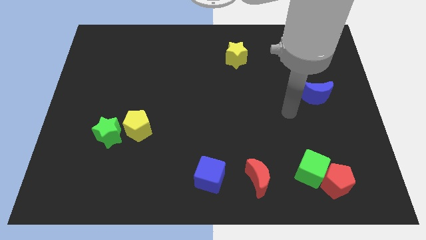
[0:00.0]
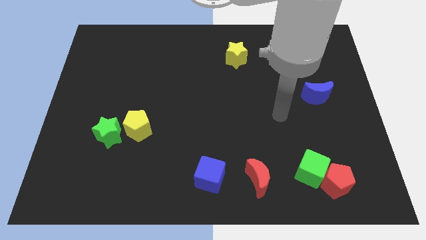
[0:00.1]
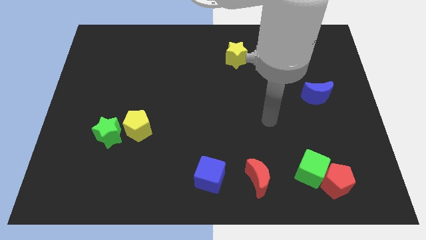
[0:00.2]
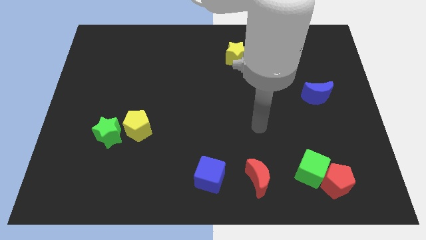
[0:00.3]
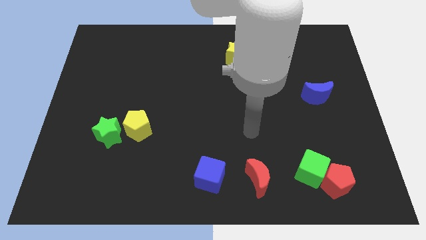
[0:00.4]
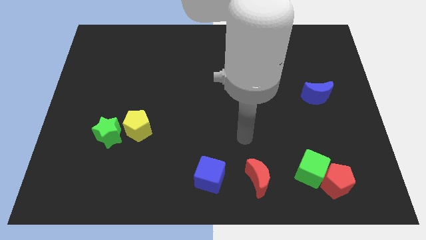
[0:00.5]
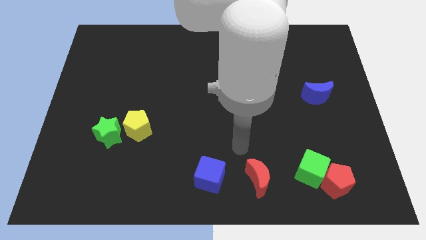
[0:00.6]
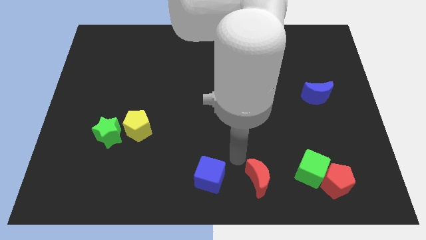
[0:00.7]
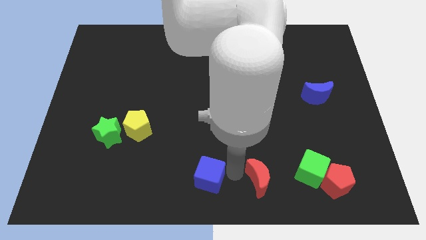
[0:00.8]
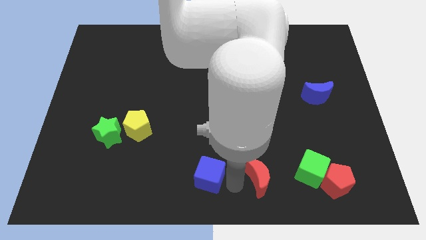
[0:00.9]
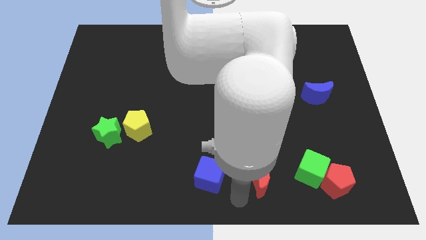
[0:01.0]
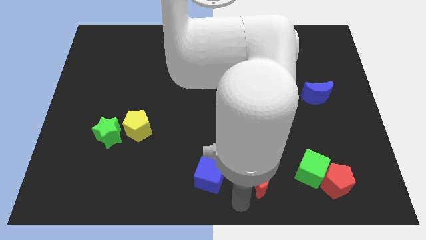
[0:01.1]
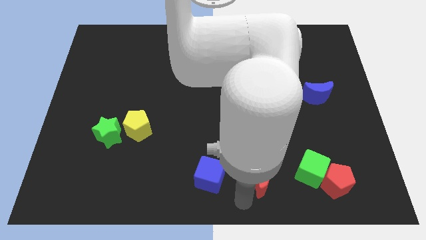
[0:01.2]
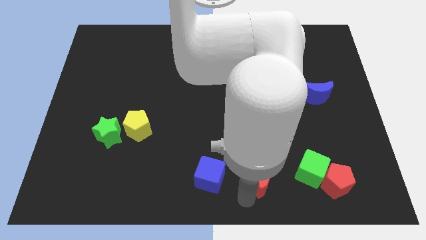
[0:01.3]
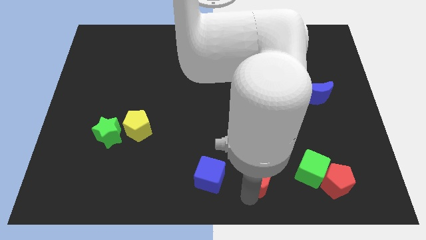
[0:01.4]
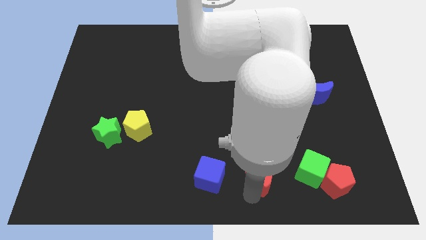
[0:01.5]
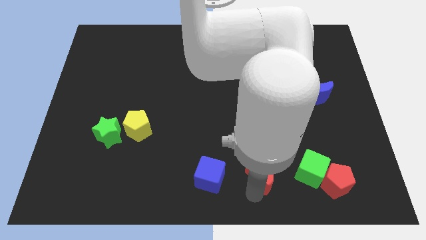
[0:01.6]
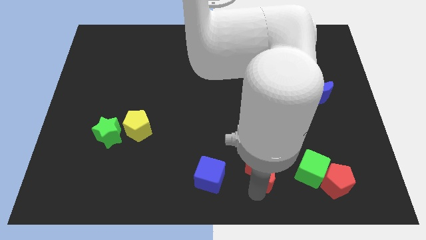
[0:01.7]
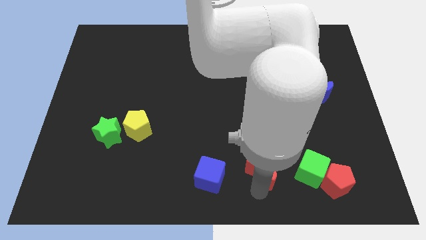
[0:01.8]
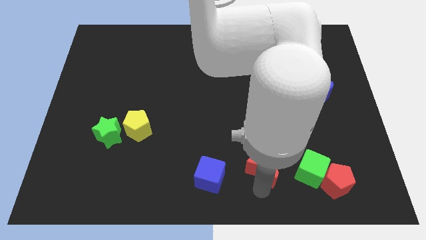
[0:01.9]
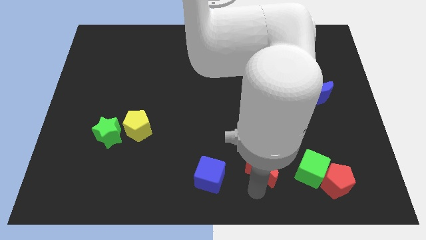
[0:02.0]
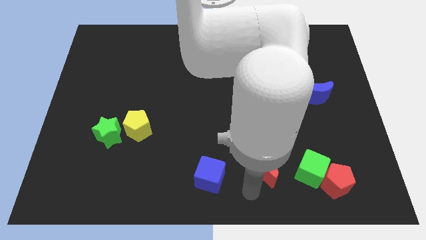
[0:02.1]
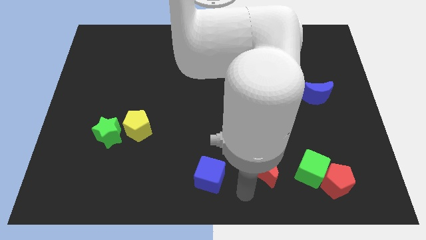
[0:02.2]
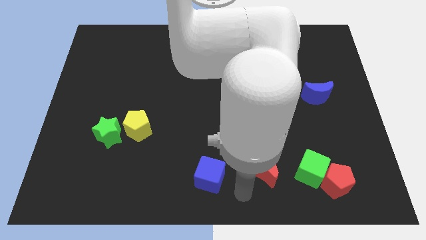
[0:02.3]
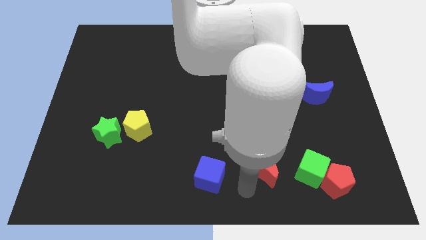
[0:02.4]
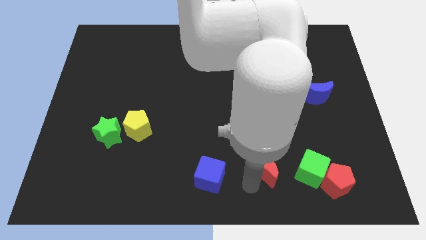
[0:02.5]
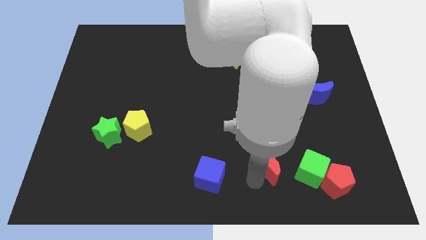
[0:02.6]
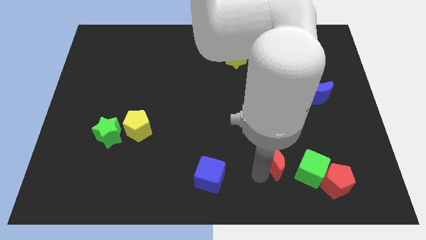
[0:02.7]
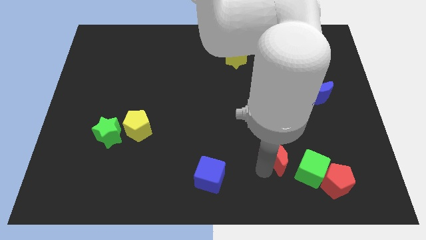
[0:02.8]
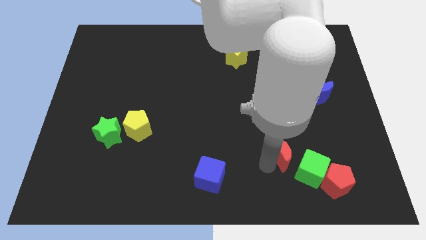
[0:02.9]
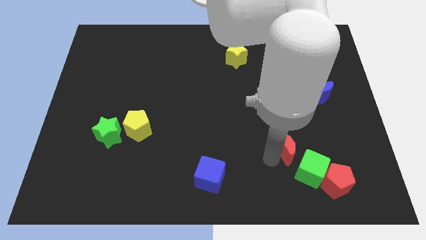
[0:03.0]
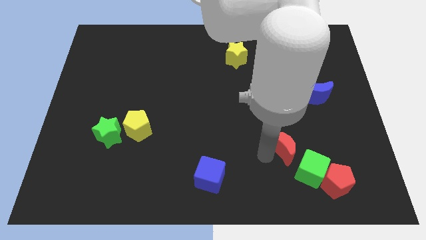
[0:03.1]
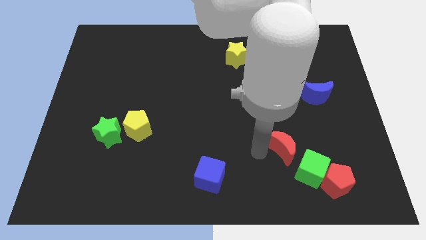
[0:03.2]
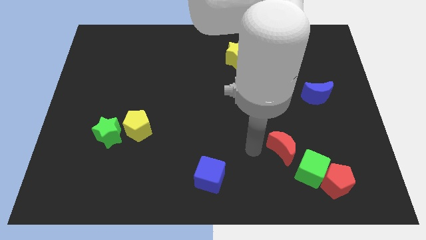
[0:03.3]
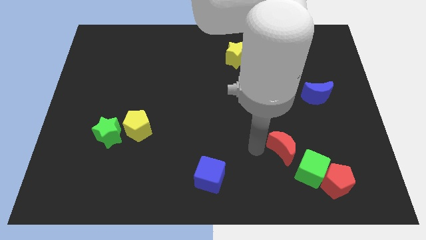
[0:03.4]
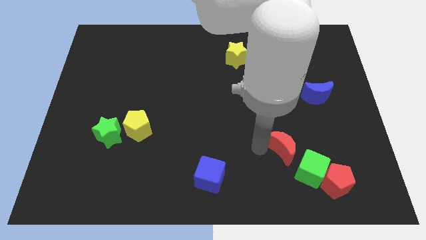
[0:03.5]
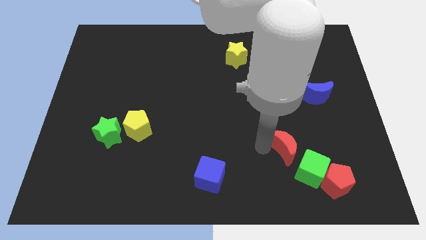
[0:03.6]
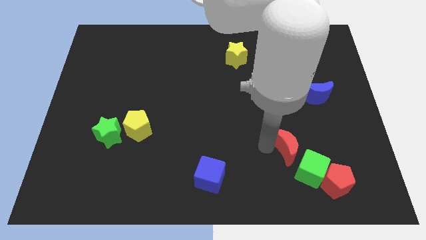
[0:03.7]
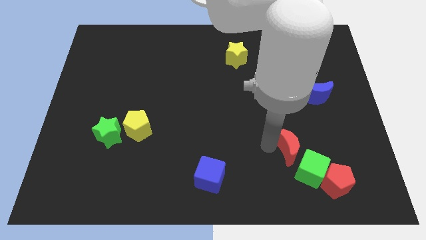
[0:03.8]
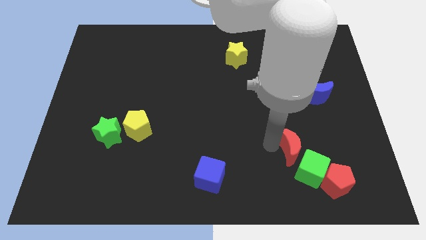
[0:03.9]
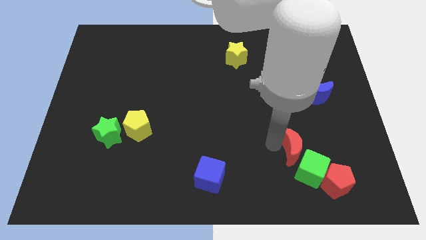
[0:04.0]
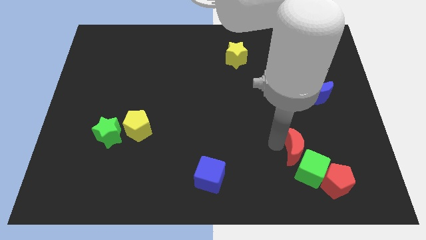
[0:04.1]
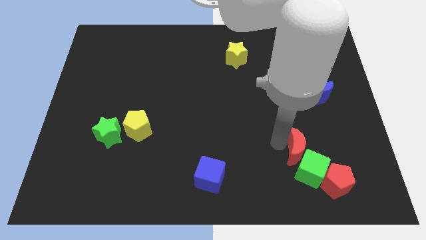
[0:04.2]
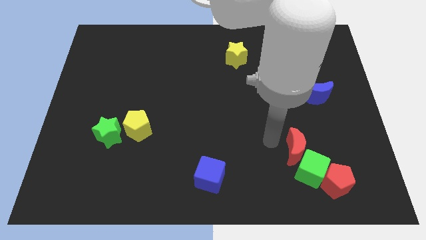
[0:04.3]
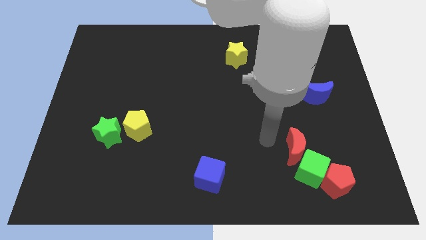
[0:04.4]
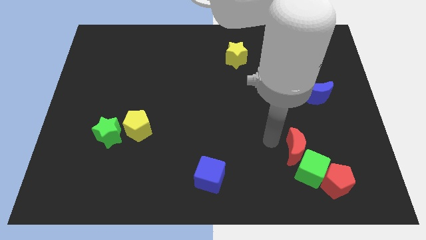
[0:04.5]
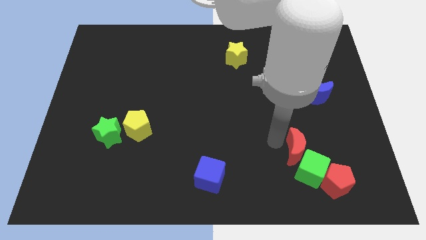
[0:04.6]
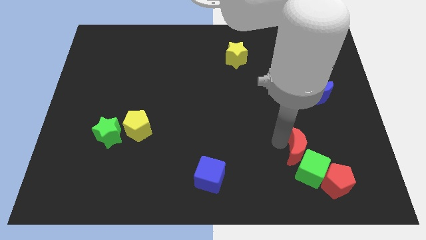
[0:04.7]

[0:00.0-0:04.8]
slightly move the red moon right

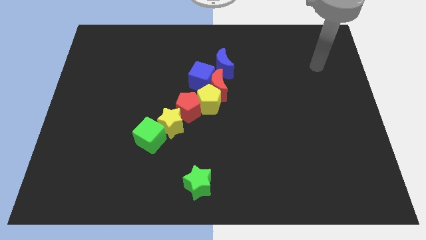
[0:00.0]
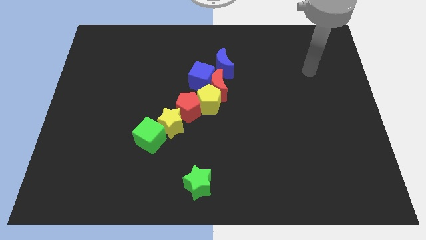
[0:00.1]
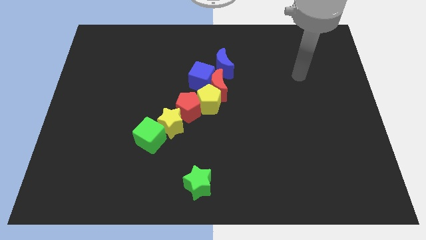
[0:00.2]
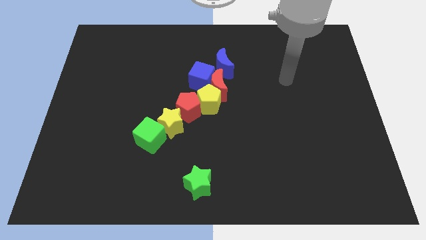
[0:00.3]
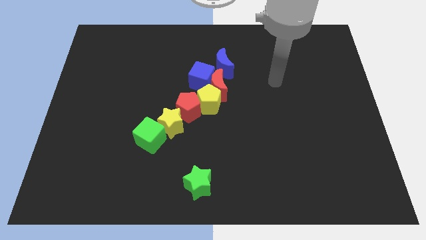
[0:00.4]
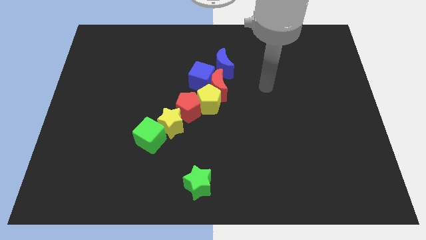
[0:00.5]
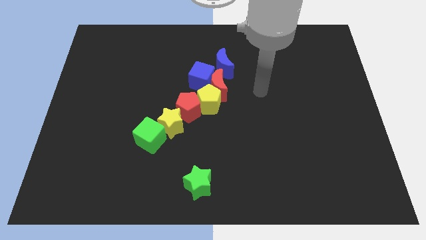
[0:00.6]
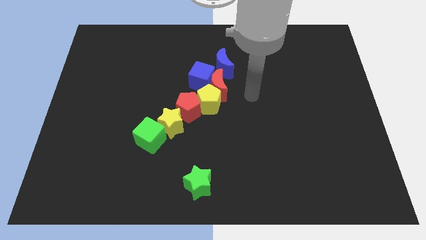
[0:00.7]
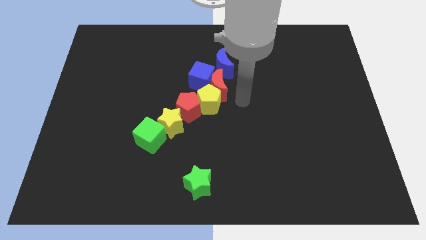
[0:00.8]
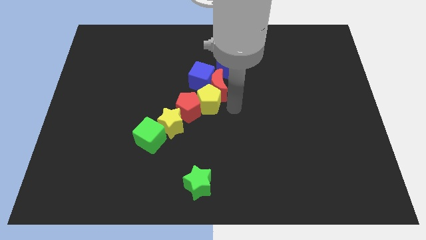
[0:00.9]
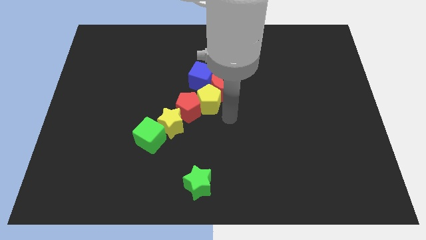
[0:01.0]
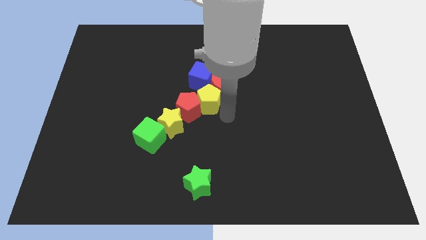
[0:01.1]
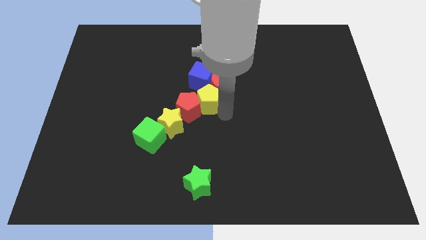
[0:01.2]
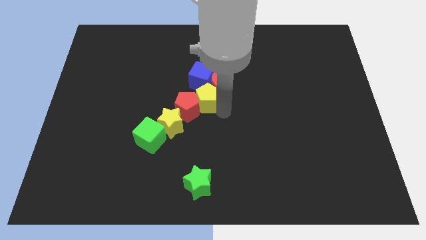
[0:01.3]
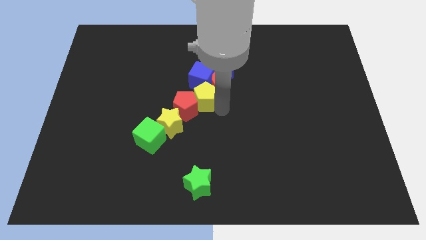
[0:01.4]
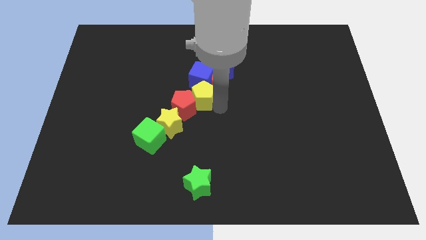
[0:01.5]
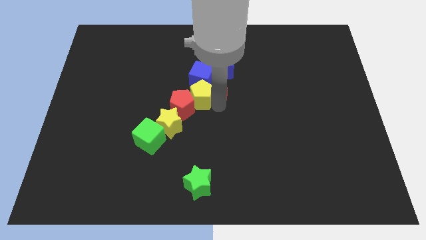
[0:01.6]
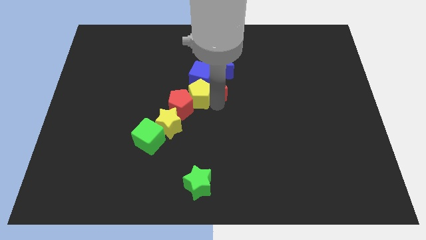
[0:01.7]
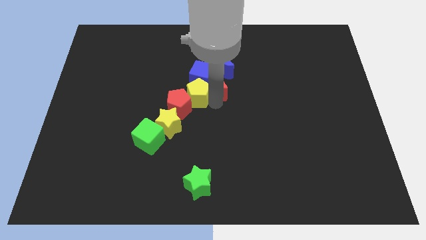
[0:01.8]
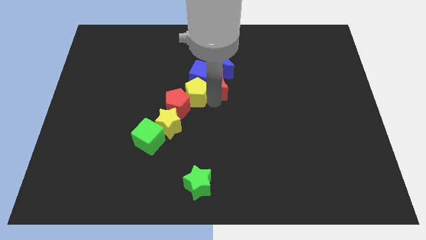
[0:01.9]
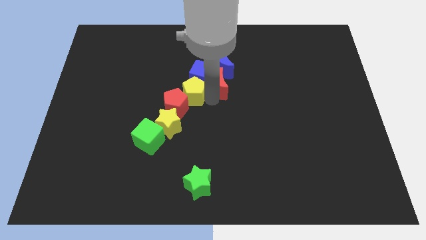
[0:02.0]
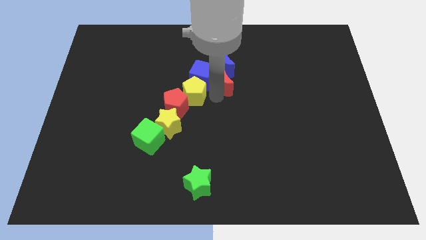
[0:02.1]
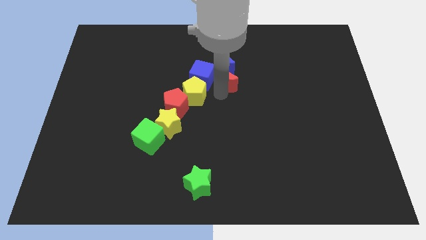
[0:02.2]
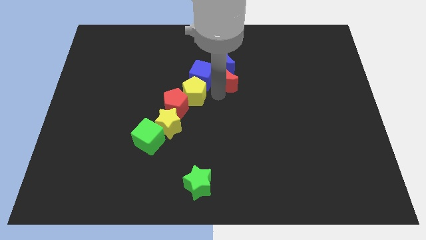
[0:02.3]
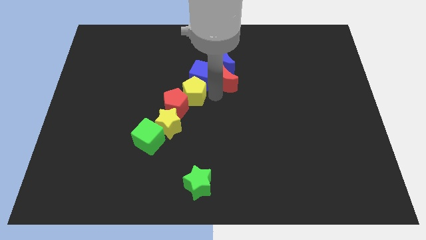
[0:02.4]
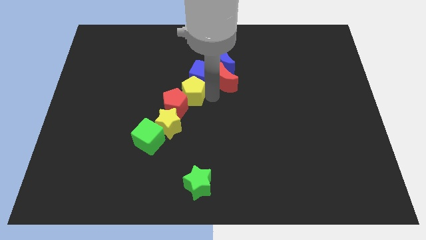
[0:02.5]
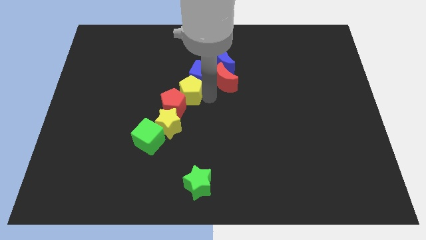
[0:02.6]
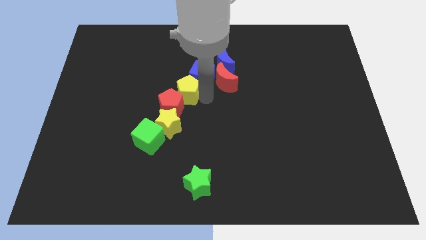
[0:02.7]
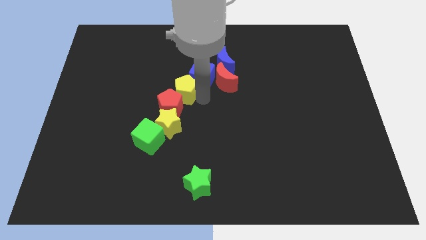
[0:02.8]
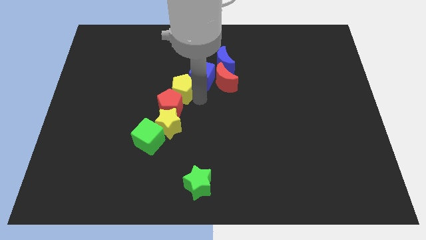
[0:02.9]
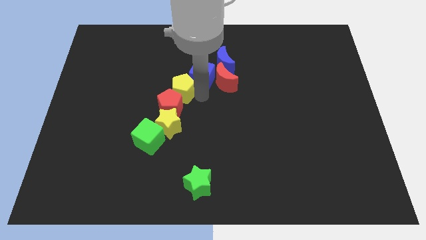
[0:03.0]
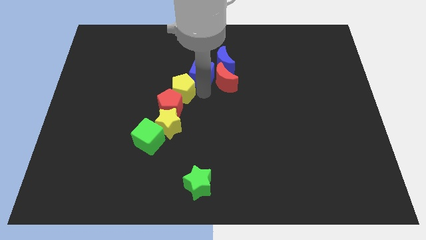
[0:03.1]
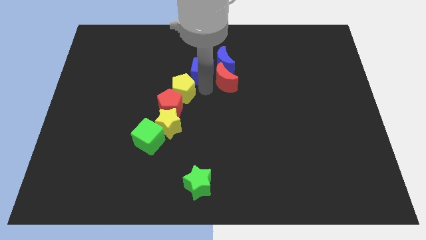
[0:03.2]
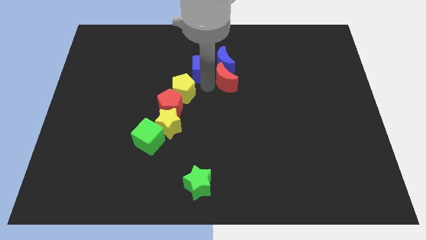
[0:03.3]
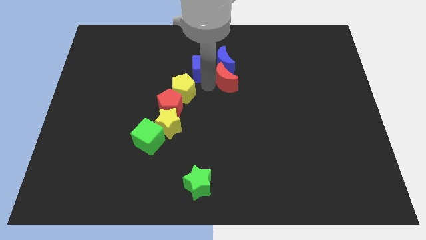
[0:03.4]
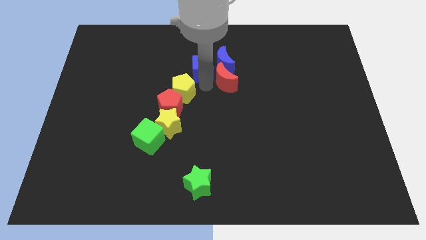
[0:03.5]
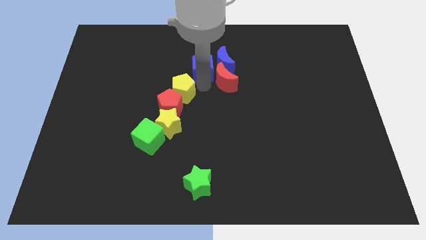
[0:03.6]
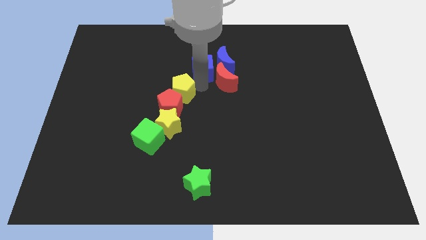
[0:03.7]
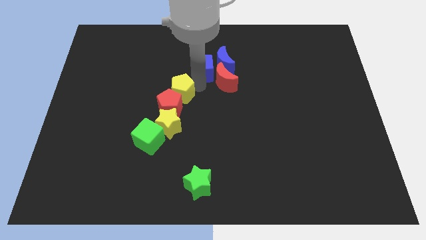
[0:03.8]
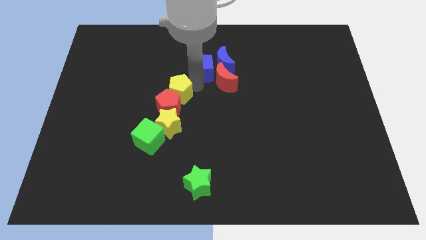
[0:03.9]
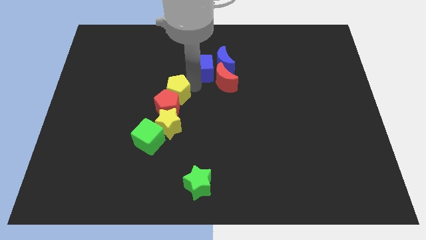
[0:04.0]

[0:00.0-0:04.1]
move the yellow pentagon slightly to the left
